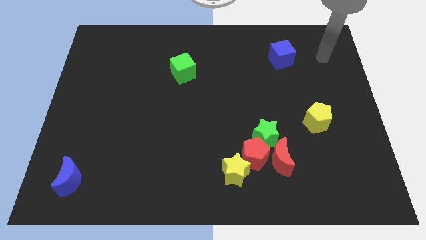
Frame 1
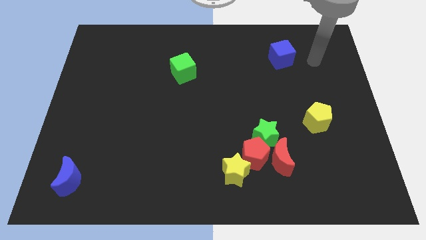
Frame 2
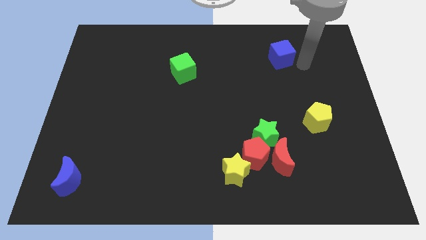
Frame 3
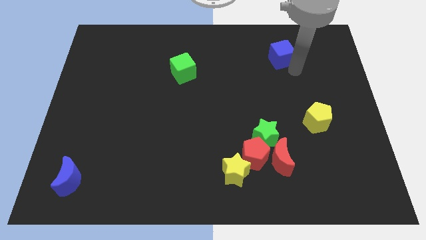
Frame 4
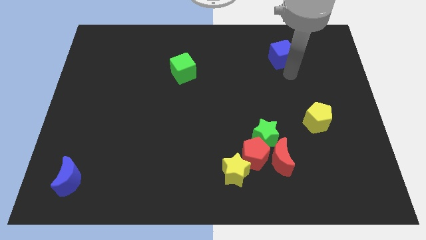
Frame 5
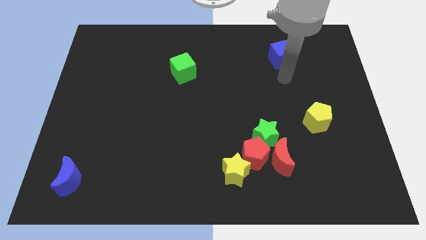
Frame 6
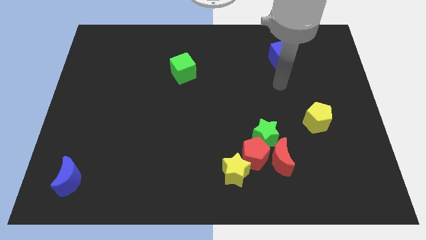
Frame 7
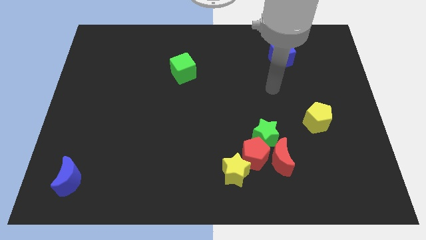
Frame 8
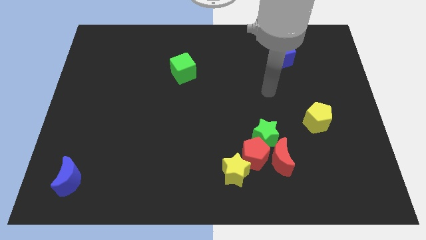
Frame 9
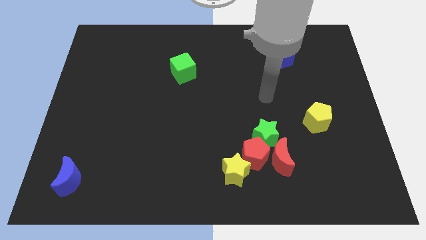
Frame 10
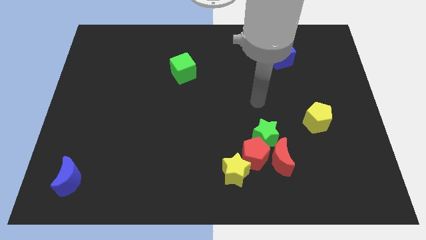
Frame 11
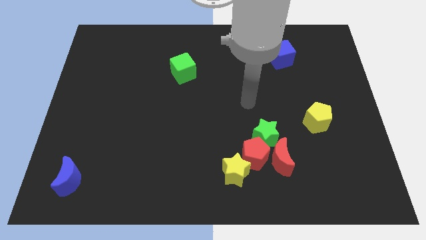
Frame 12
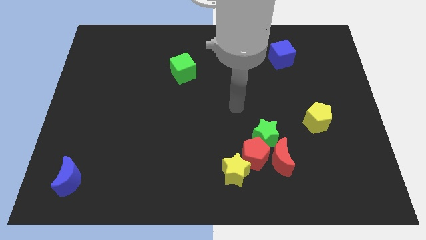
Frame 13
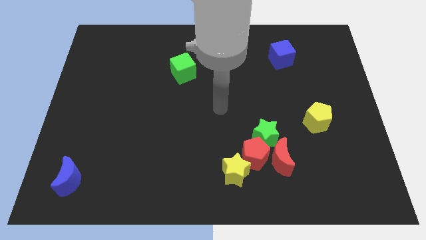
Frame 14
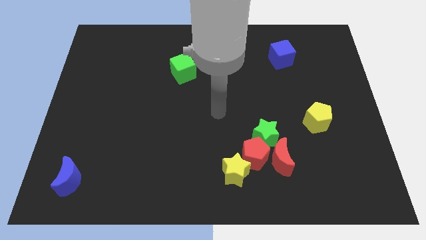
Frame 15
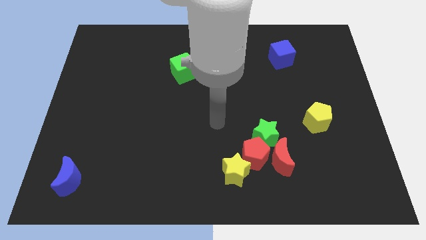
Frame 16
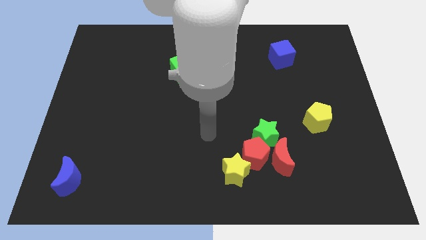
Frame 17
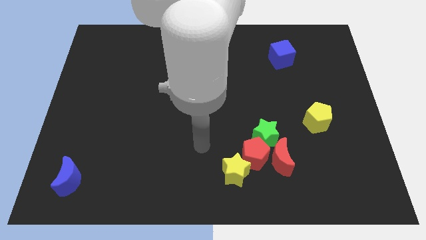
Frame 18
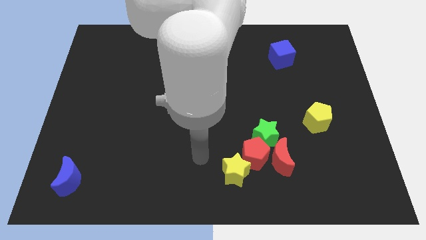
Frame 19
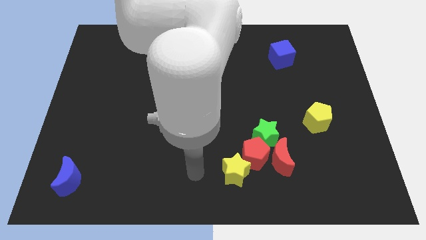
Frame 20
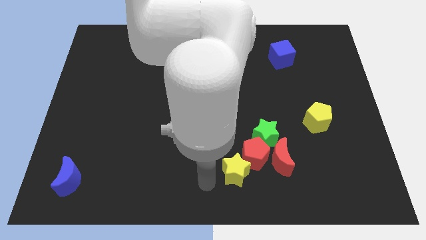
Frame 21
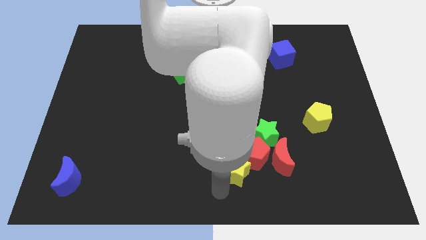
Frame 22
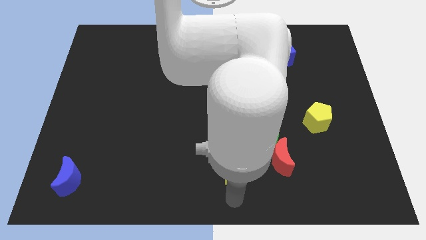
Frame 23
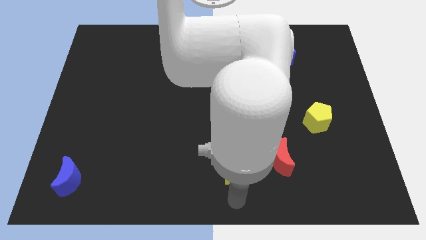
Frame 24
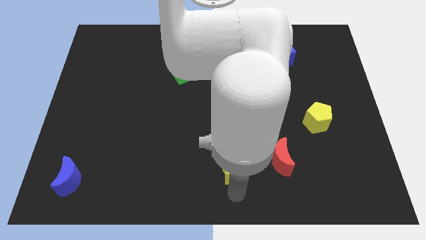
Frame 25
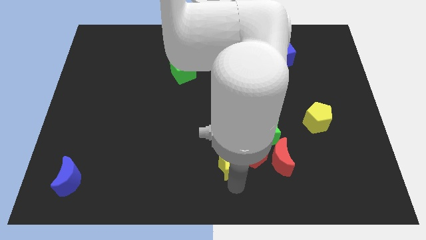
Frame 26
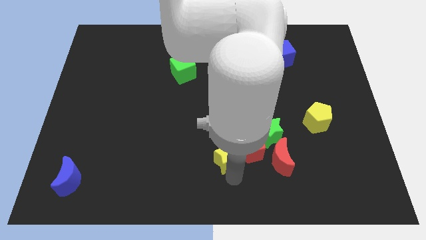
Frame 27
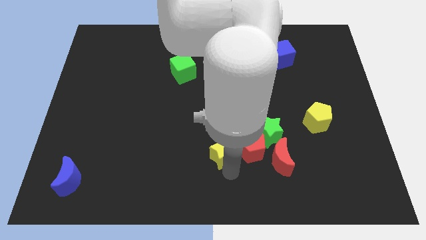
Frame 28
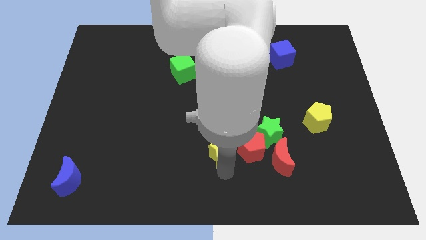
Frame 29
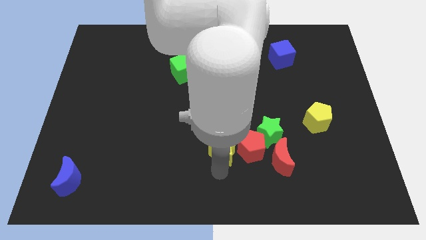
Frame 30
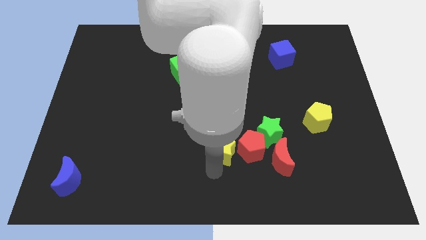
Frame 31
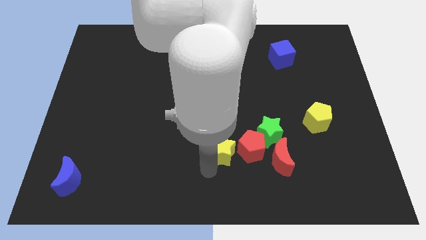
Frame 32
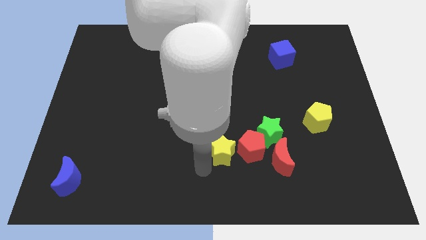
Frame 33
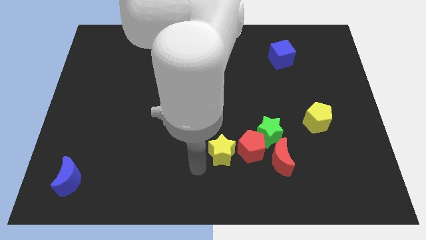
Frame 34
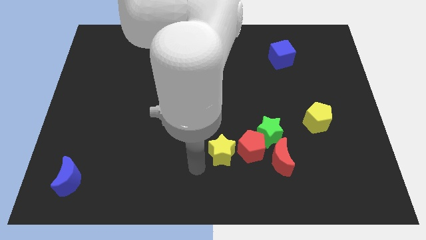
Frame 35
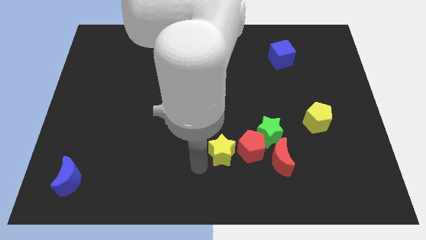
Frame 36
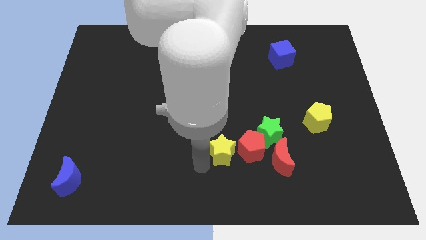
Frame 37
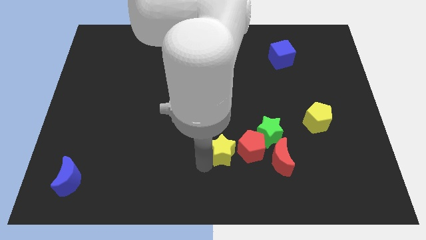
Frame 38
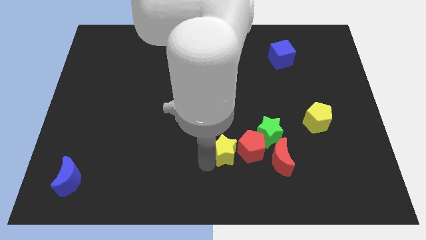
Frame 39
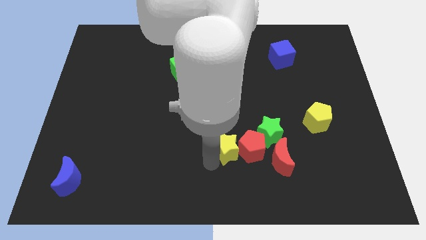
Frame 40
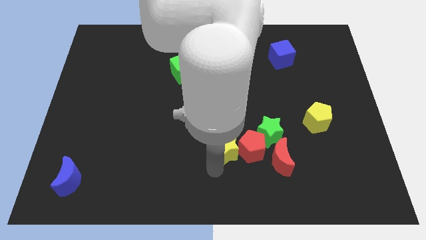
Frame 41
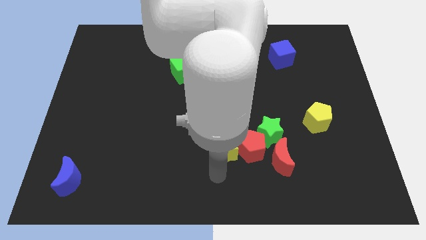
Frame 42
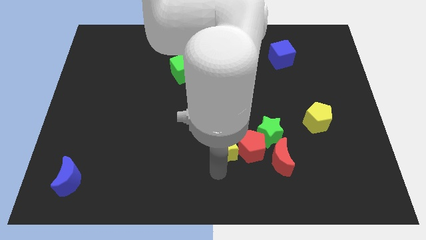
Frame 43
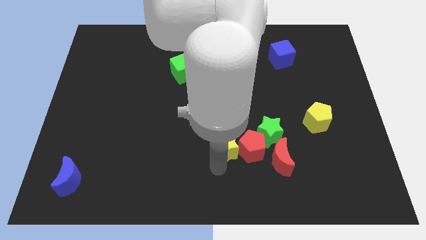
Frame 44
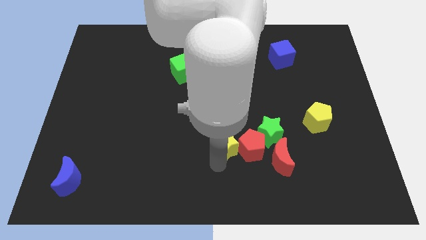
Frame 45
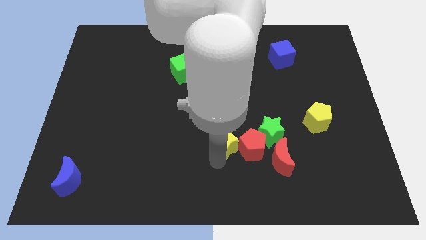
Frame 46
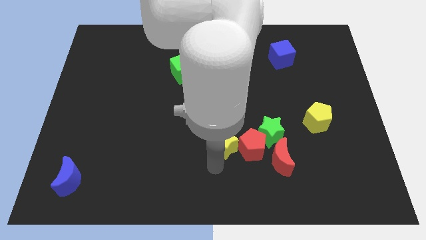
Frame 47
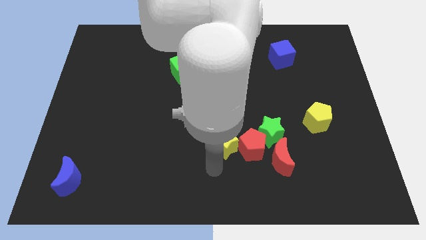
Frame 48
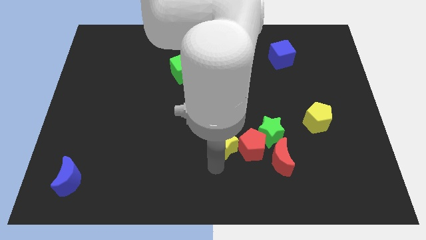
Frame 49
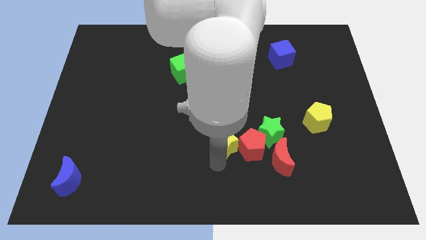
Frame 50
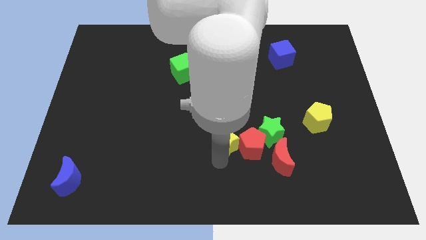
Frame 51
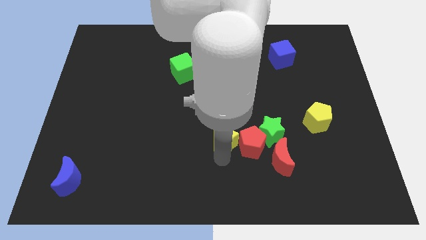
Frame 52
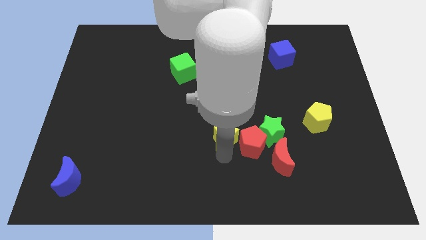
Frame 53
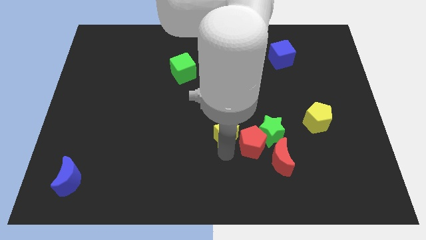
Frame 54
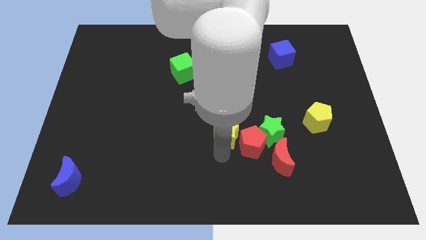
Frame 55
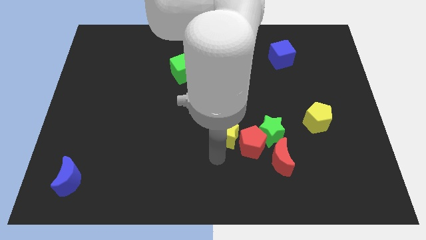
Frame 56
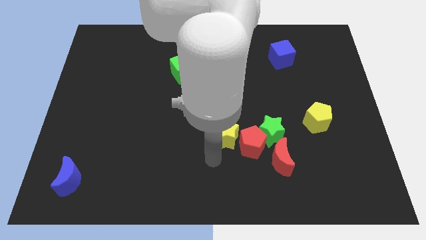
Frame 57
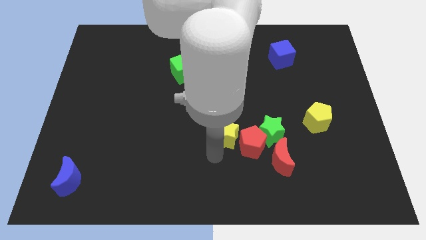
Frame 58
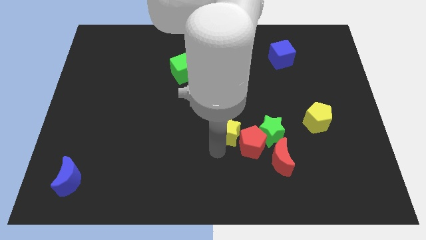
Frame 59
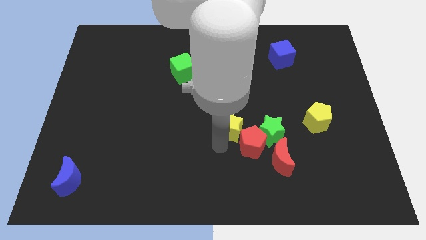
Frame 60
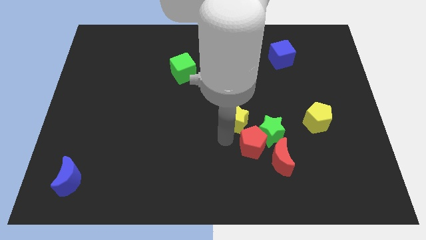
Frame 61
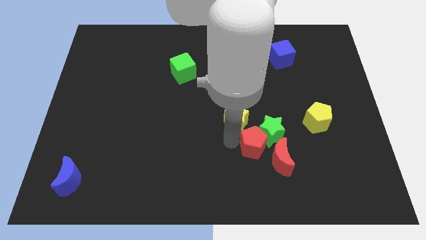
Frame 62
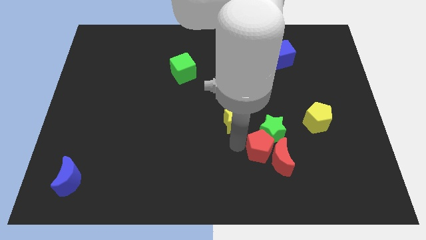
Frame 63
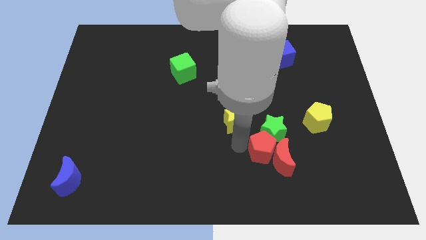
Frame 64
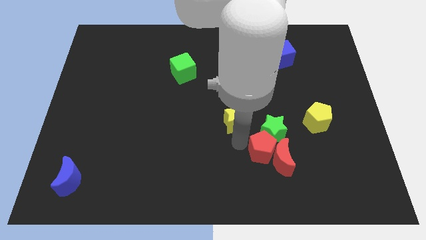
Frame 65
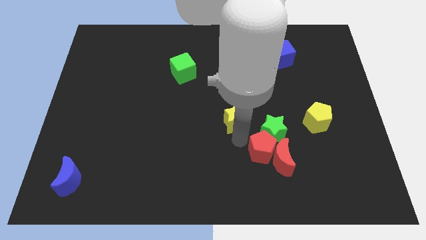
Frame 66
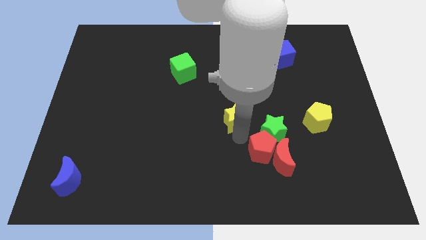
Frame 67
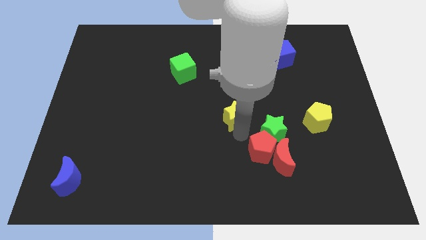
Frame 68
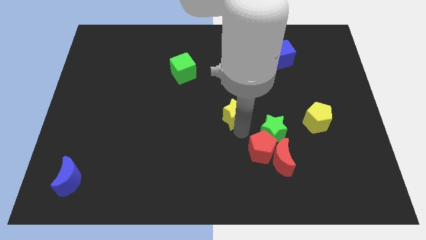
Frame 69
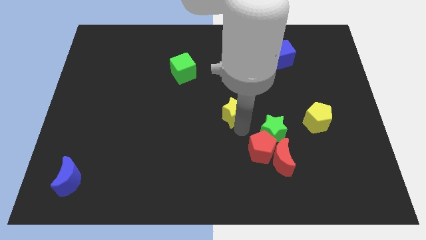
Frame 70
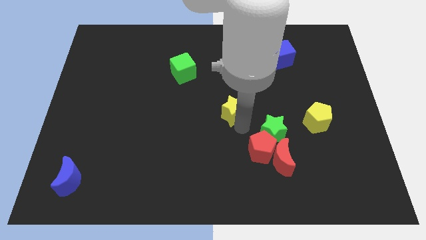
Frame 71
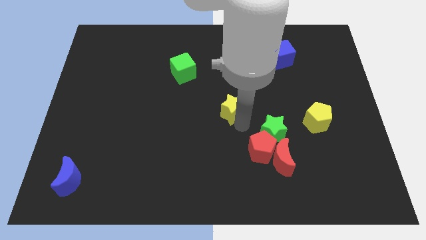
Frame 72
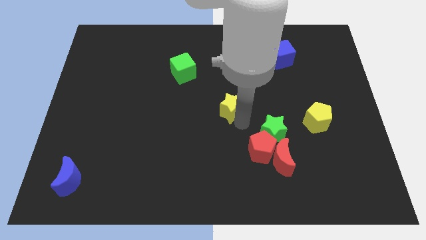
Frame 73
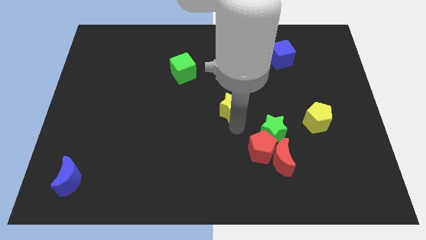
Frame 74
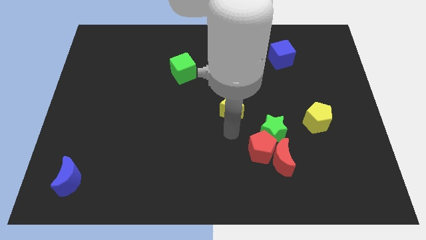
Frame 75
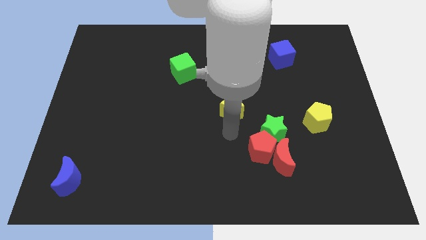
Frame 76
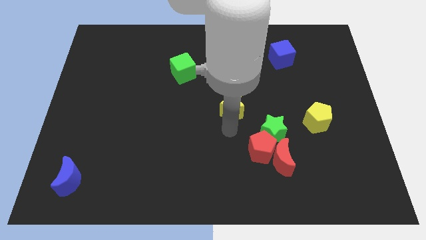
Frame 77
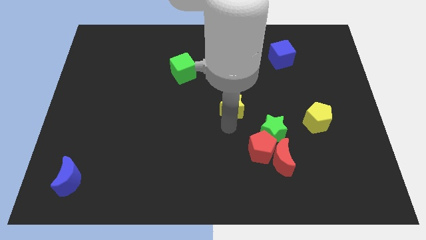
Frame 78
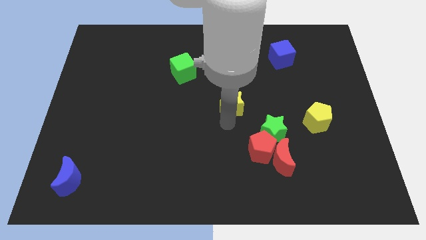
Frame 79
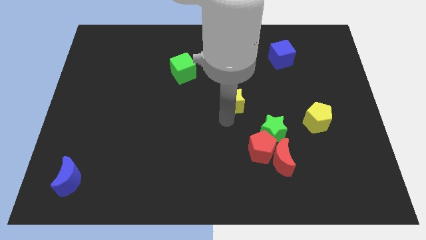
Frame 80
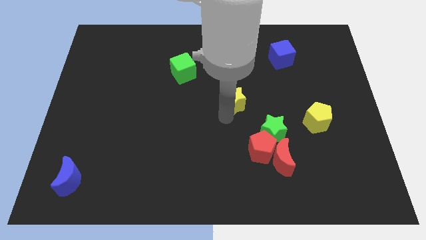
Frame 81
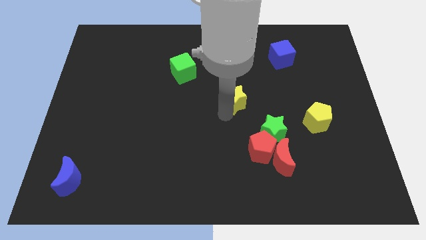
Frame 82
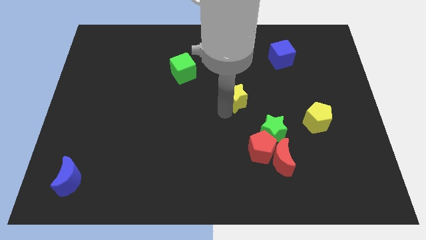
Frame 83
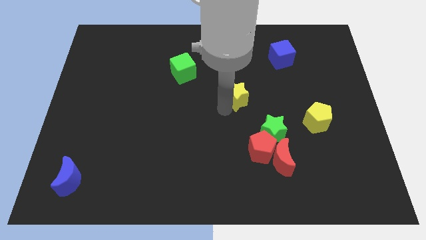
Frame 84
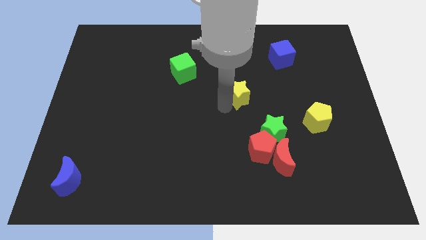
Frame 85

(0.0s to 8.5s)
slide the yellow star upwards
